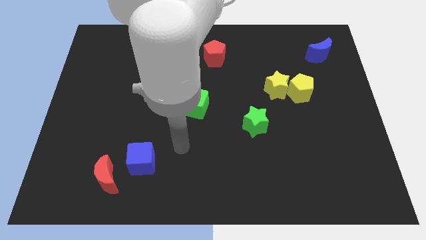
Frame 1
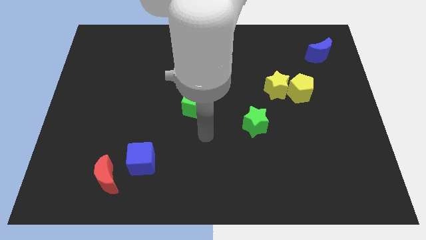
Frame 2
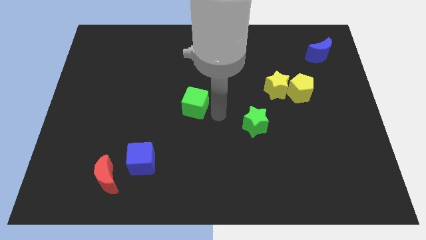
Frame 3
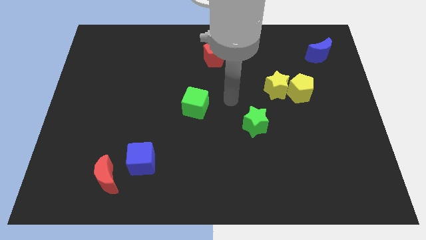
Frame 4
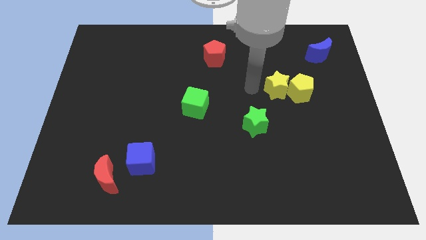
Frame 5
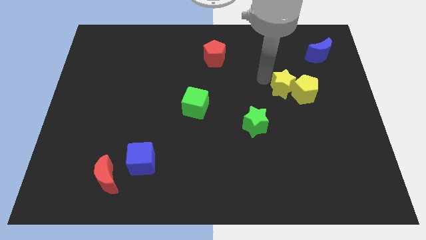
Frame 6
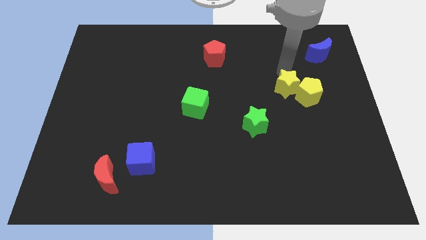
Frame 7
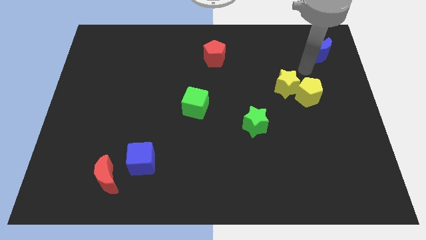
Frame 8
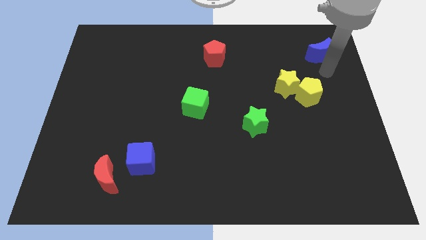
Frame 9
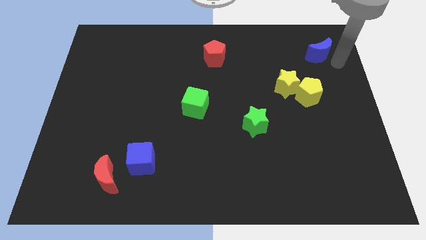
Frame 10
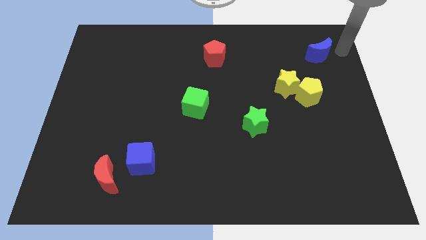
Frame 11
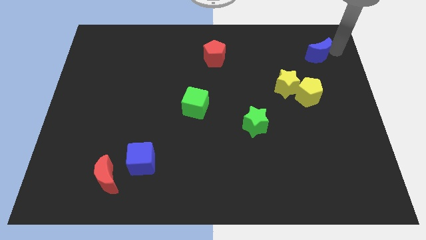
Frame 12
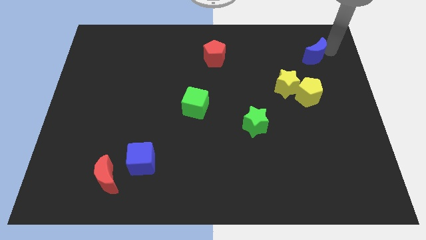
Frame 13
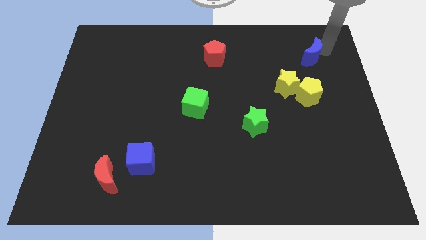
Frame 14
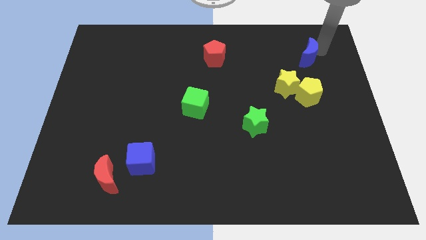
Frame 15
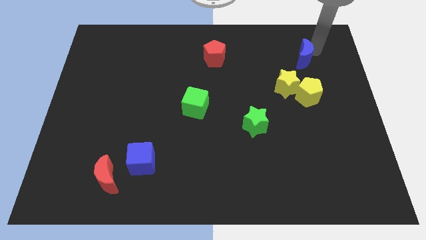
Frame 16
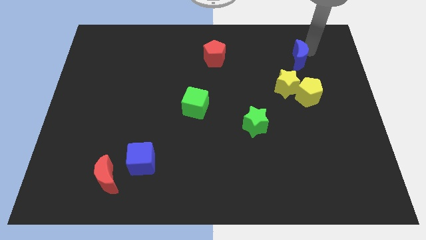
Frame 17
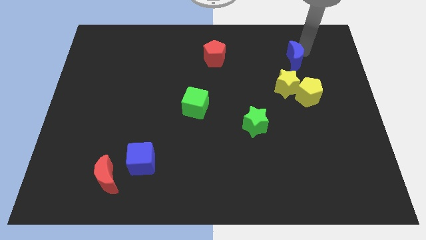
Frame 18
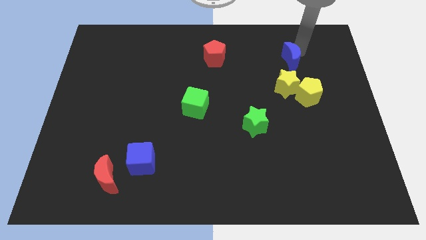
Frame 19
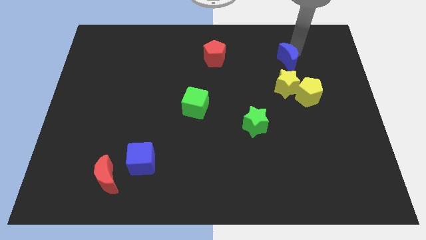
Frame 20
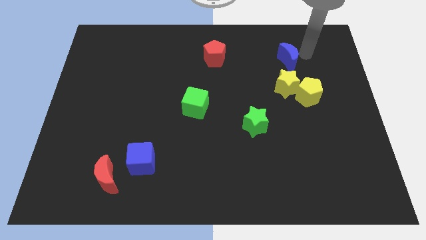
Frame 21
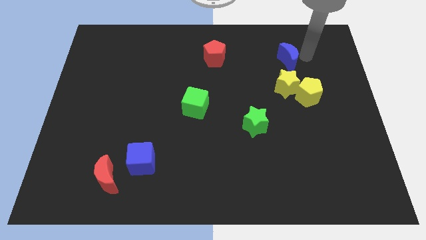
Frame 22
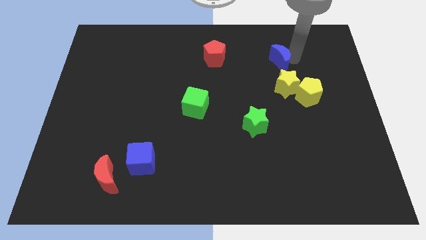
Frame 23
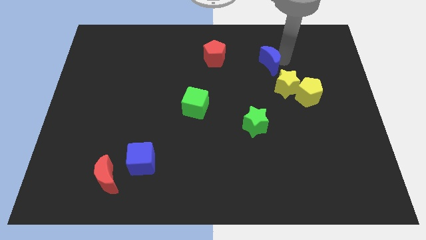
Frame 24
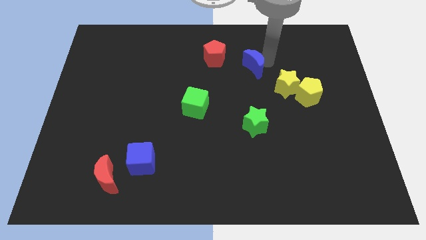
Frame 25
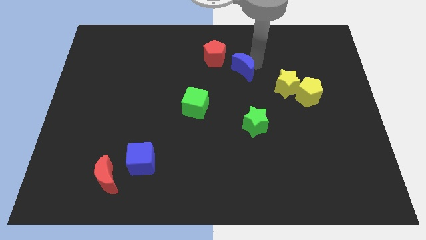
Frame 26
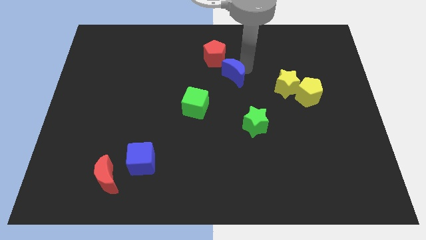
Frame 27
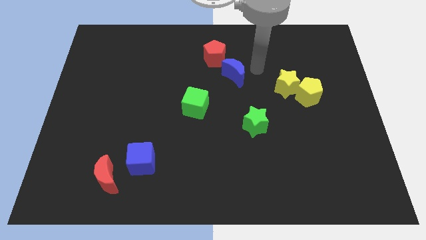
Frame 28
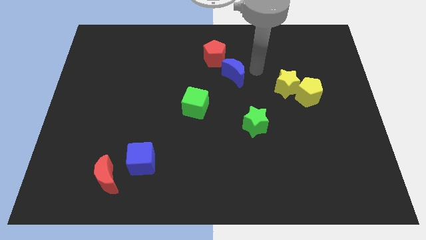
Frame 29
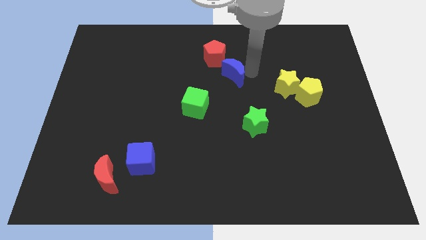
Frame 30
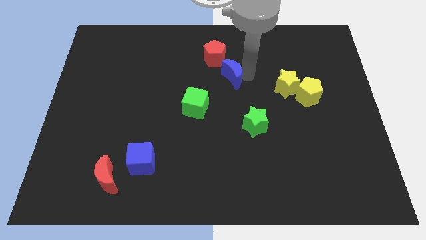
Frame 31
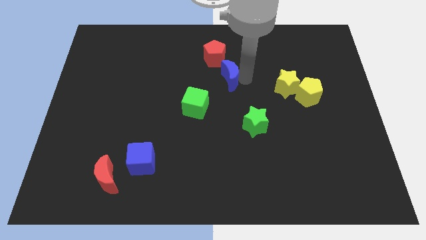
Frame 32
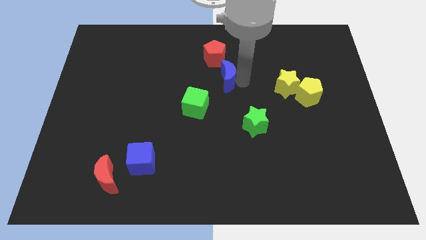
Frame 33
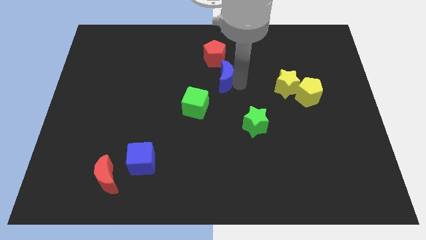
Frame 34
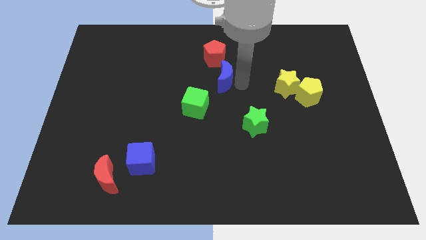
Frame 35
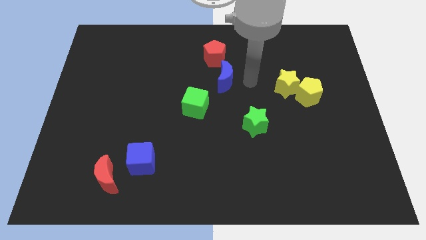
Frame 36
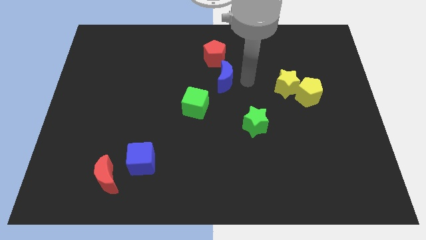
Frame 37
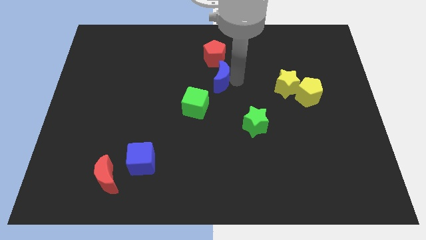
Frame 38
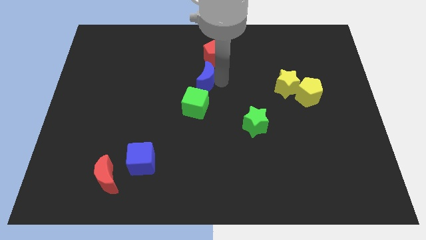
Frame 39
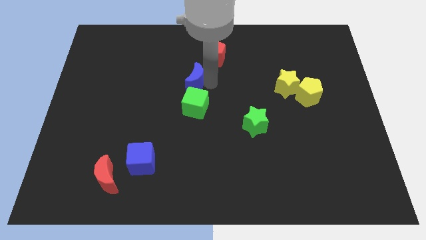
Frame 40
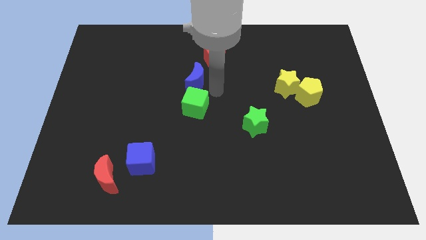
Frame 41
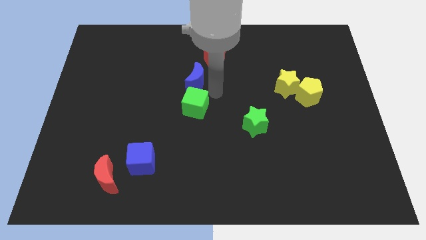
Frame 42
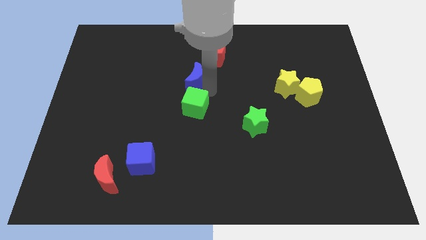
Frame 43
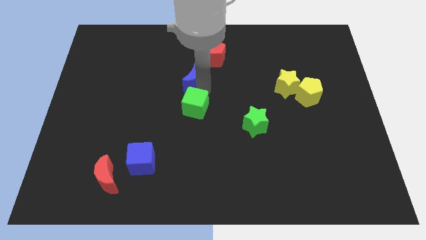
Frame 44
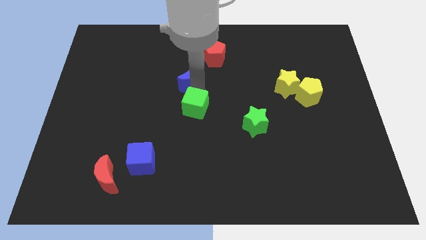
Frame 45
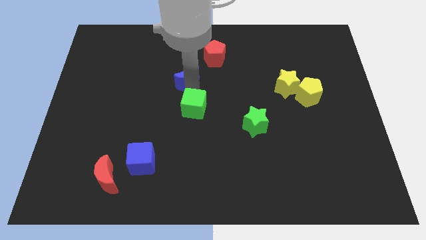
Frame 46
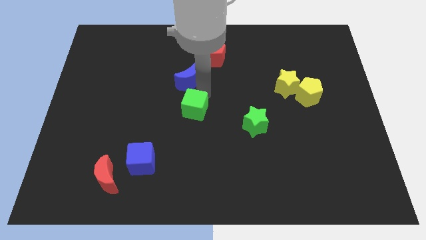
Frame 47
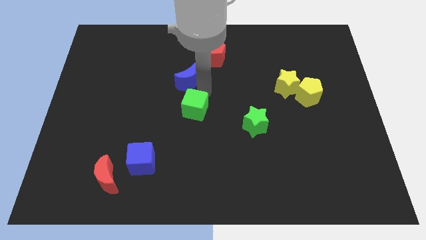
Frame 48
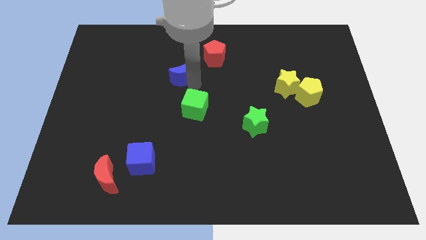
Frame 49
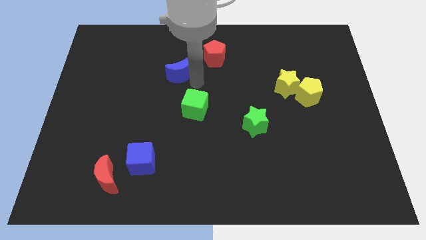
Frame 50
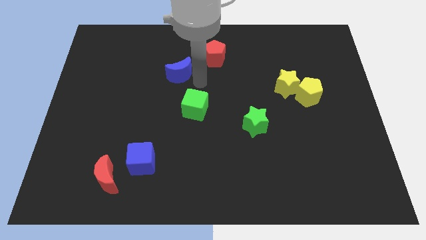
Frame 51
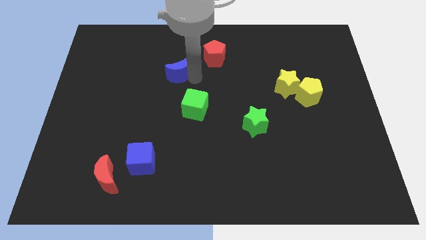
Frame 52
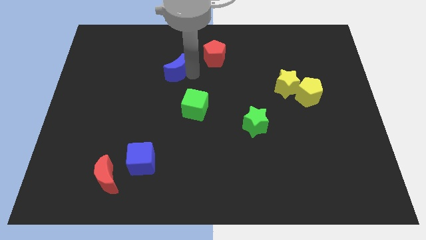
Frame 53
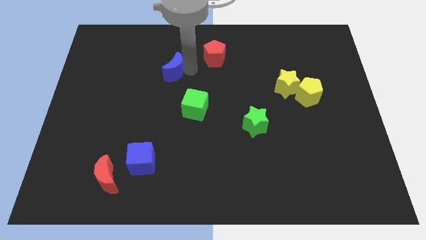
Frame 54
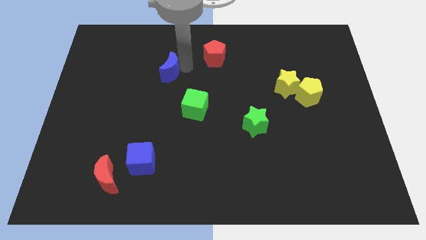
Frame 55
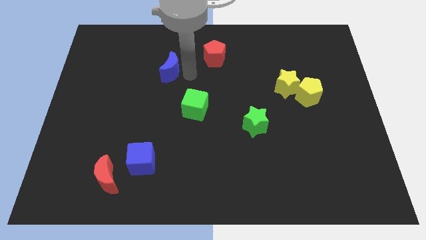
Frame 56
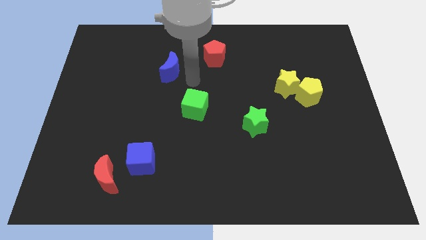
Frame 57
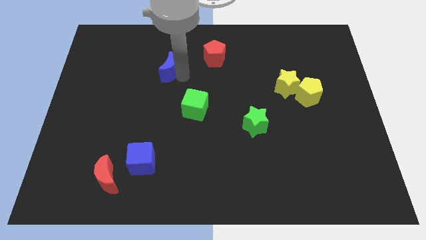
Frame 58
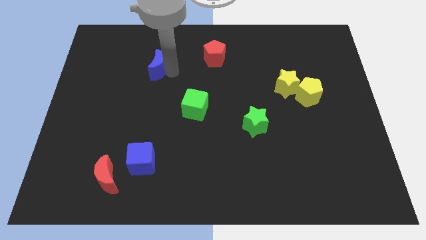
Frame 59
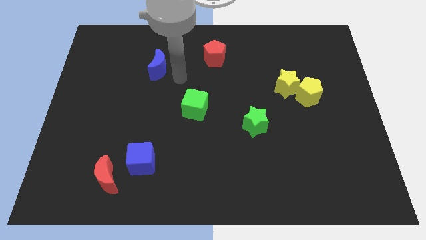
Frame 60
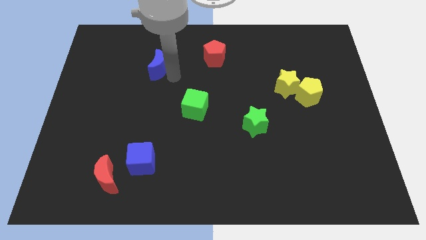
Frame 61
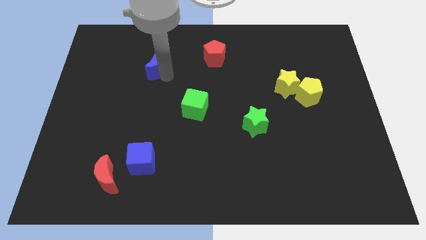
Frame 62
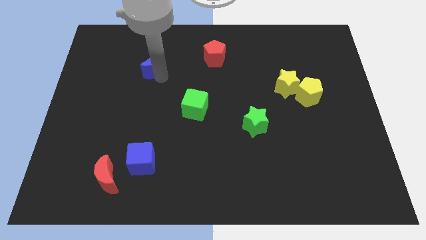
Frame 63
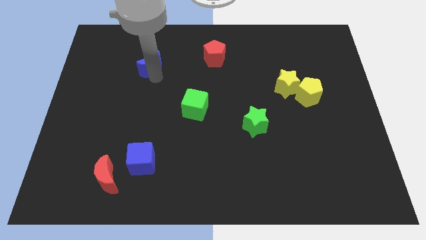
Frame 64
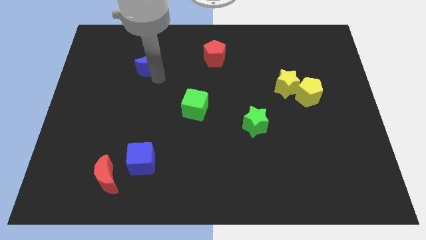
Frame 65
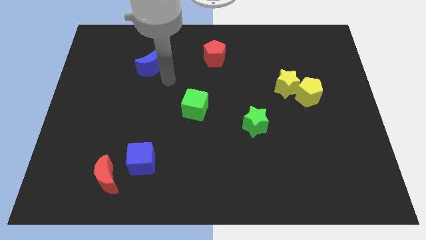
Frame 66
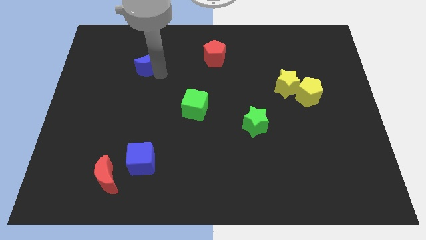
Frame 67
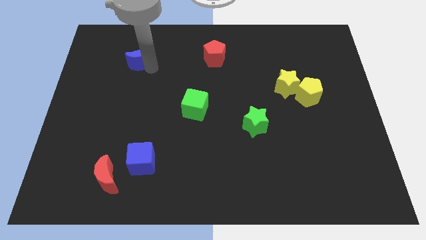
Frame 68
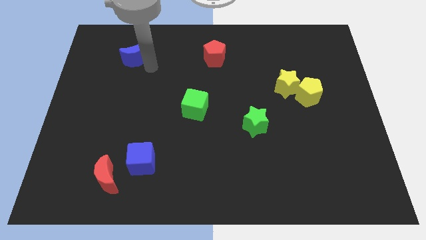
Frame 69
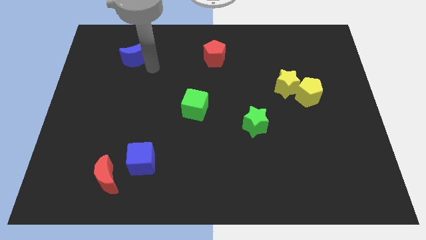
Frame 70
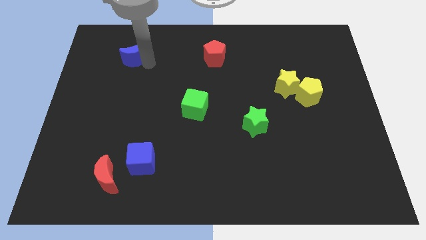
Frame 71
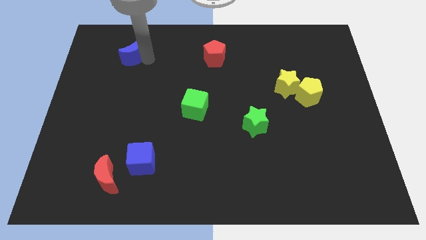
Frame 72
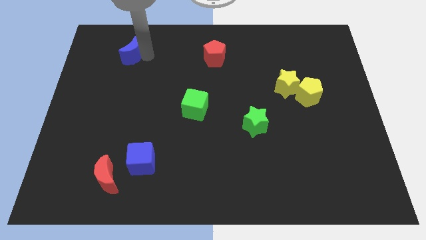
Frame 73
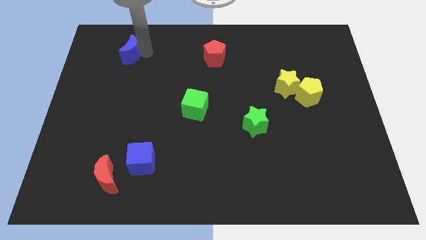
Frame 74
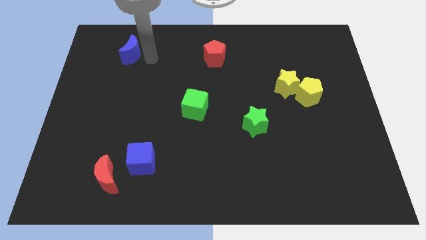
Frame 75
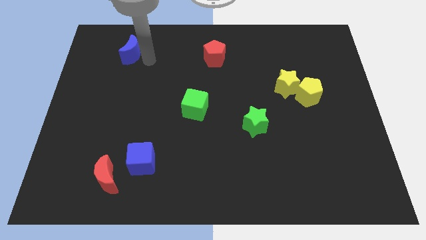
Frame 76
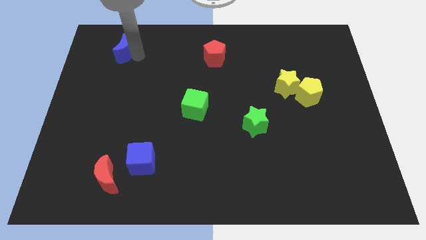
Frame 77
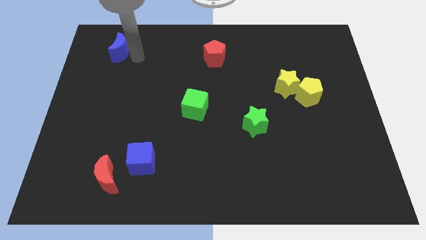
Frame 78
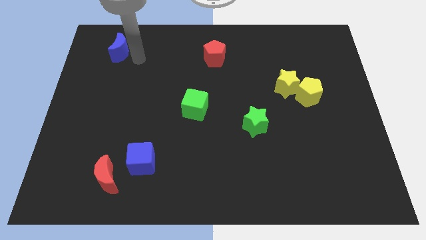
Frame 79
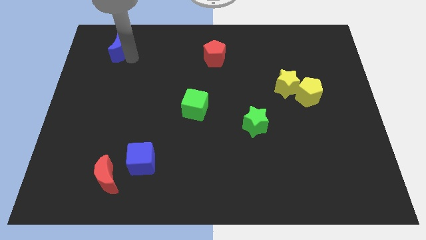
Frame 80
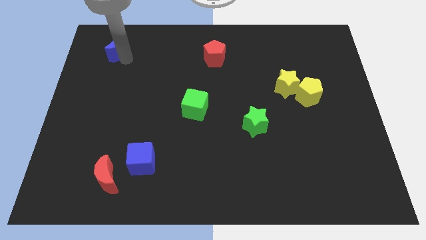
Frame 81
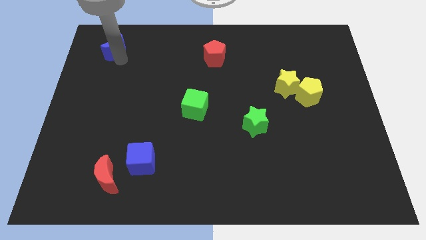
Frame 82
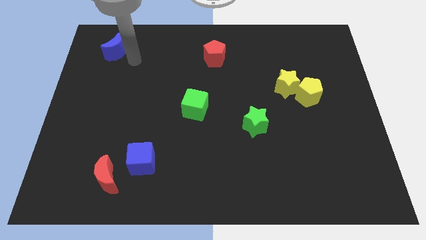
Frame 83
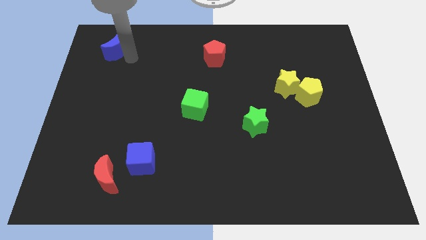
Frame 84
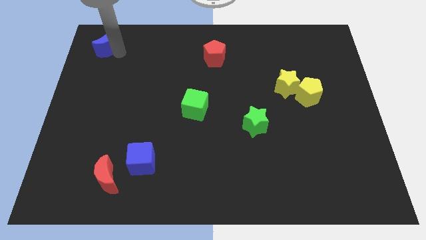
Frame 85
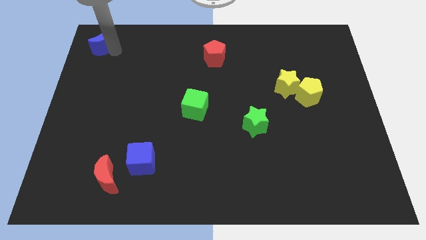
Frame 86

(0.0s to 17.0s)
slide the blue moon to the upper left corner
